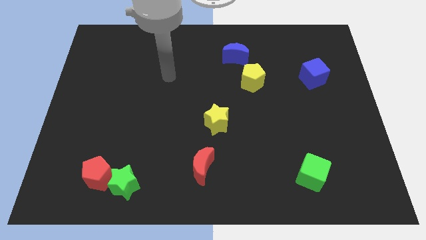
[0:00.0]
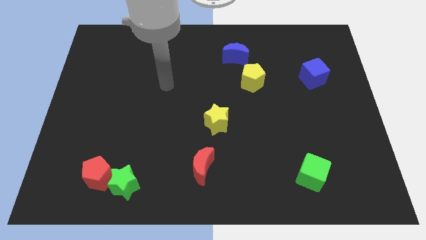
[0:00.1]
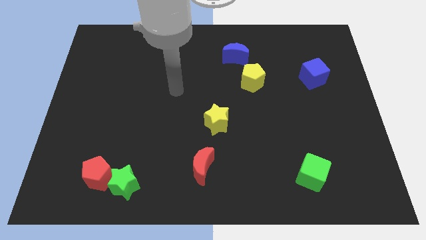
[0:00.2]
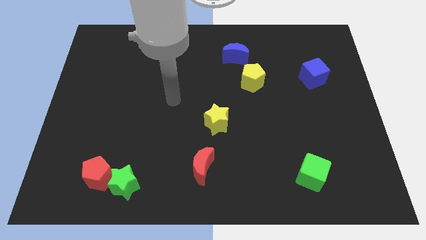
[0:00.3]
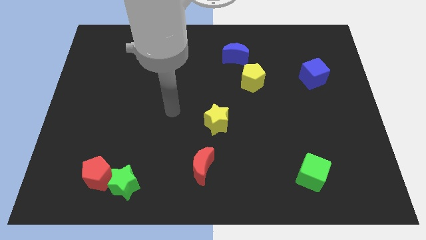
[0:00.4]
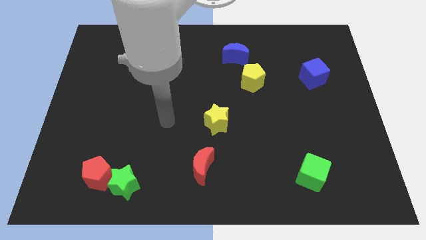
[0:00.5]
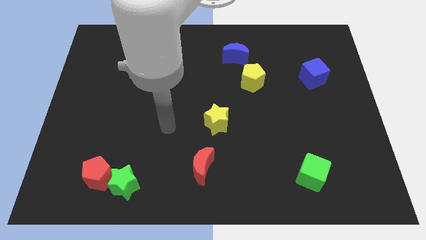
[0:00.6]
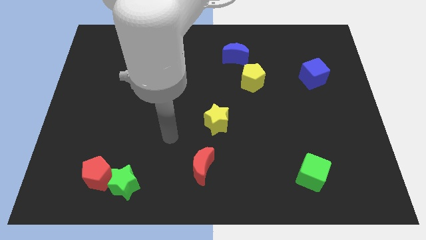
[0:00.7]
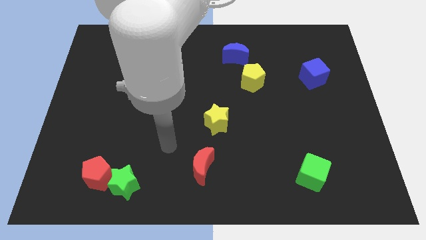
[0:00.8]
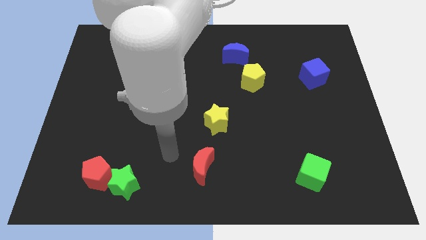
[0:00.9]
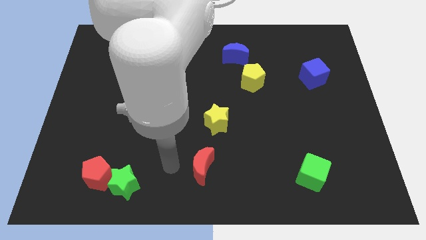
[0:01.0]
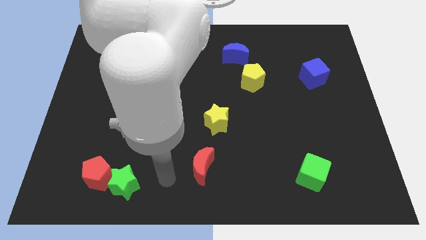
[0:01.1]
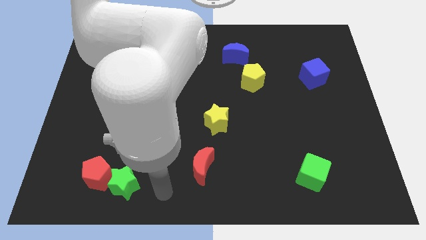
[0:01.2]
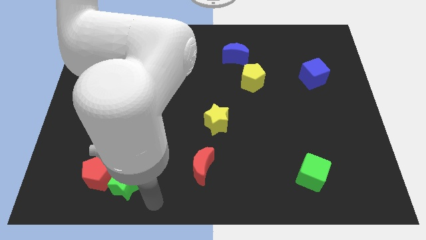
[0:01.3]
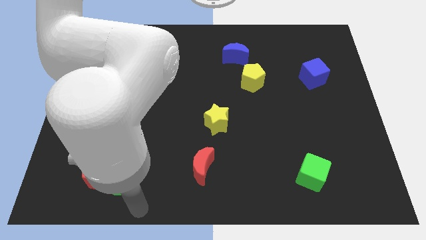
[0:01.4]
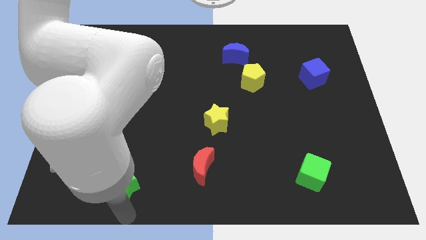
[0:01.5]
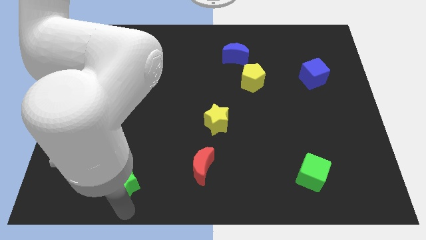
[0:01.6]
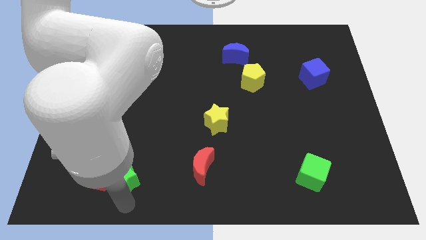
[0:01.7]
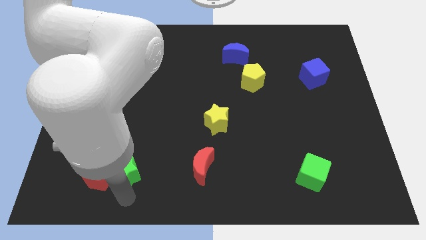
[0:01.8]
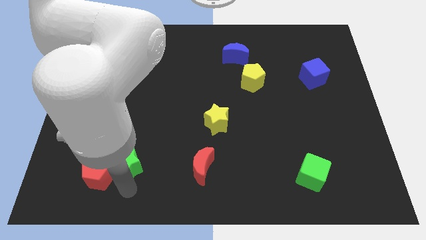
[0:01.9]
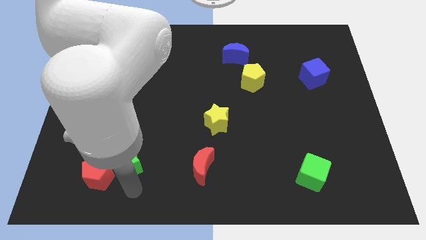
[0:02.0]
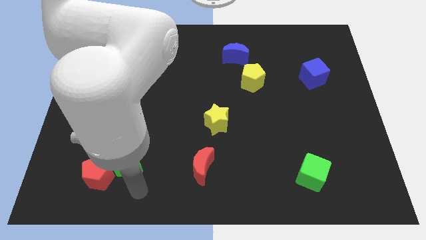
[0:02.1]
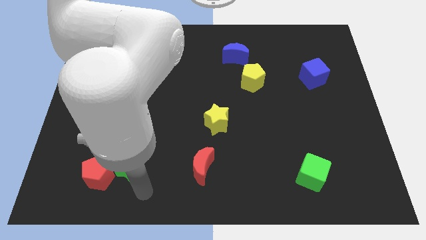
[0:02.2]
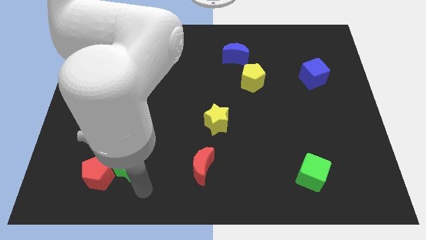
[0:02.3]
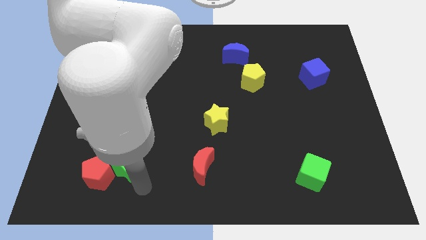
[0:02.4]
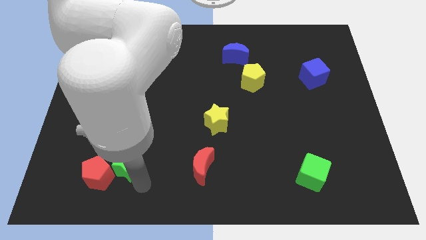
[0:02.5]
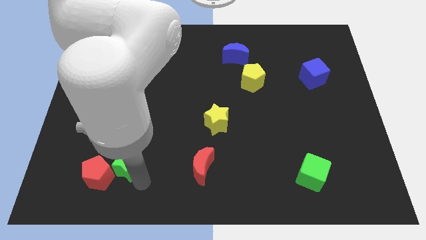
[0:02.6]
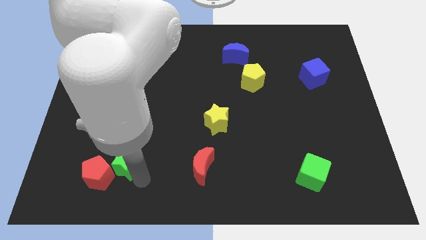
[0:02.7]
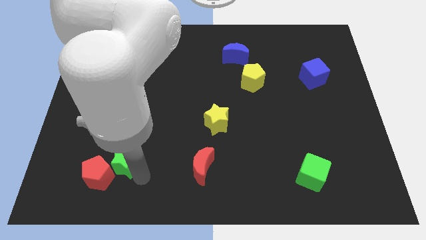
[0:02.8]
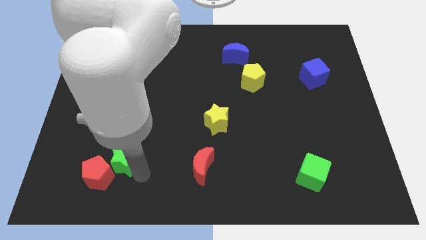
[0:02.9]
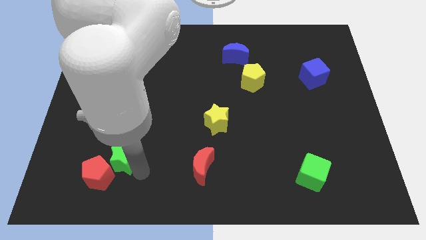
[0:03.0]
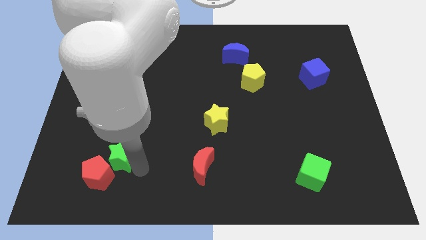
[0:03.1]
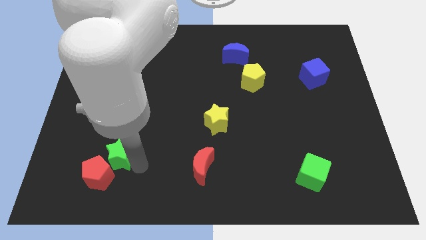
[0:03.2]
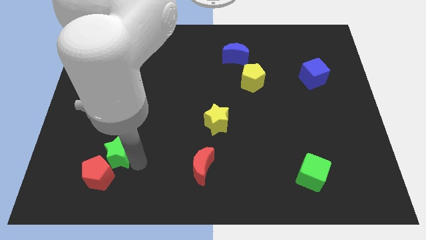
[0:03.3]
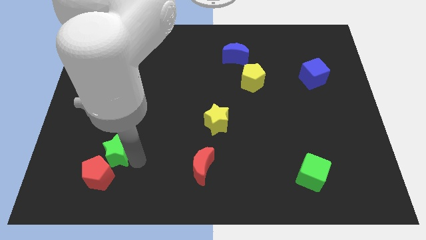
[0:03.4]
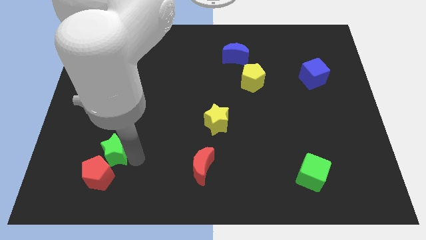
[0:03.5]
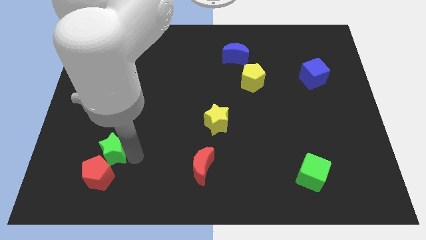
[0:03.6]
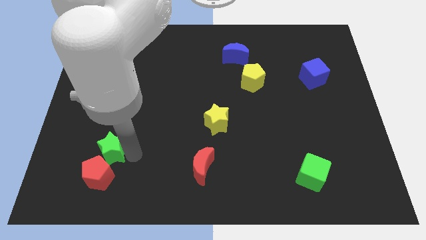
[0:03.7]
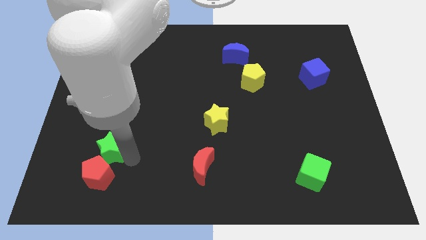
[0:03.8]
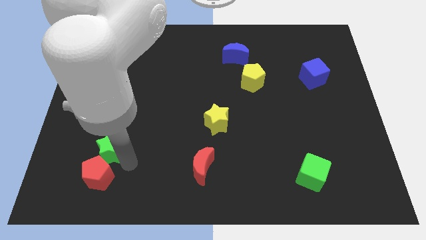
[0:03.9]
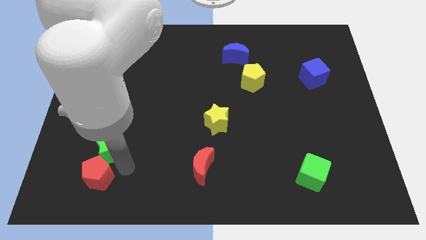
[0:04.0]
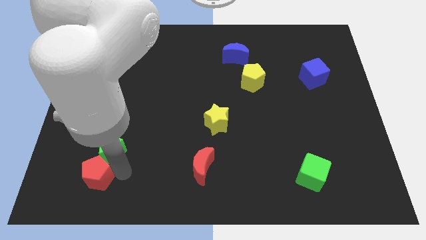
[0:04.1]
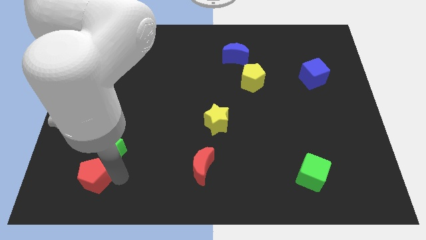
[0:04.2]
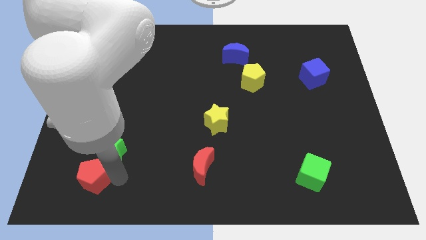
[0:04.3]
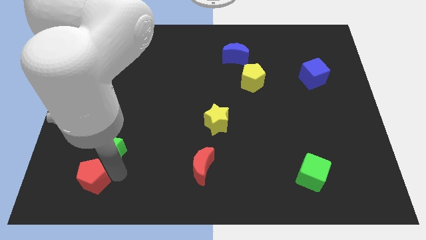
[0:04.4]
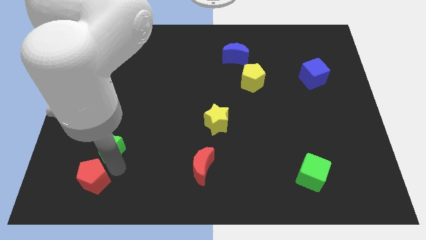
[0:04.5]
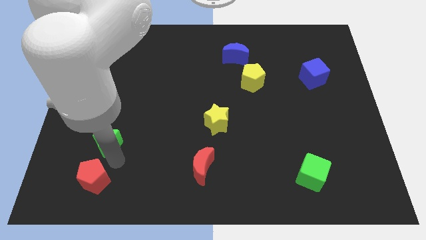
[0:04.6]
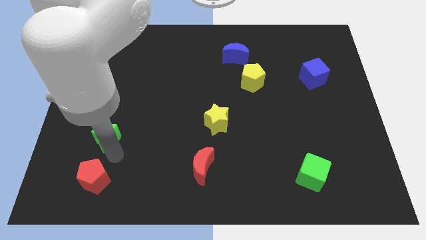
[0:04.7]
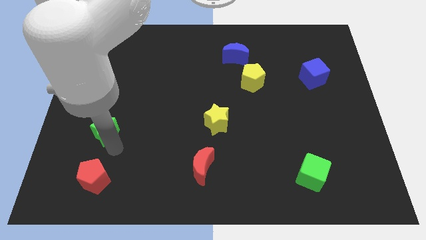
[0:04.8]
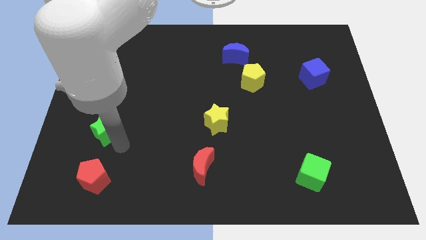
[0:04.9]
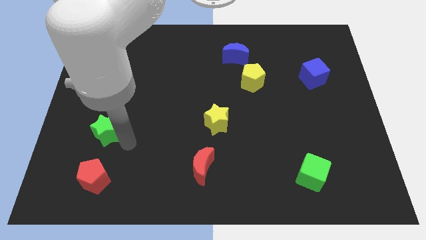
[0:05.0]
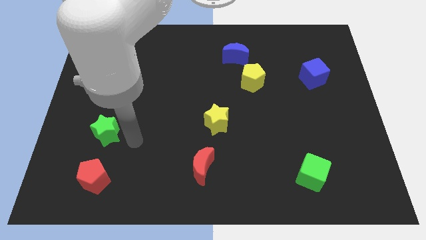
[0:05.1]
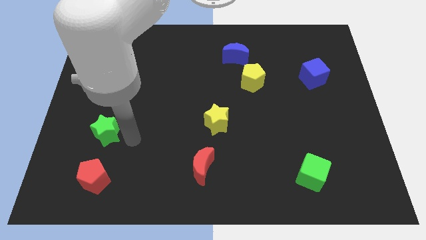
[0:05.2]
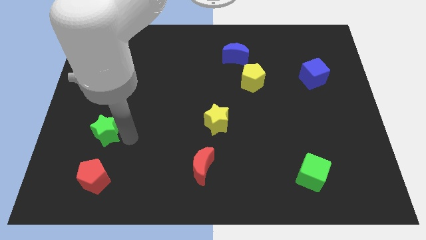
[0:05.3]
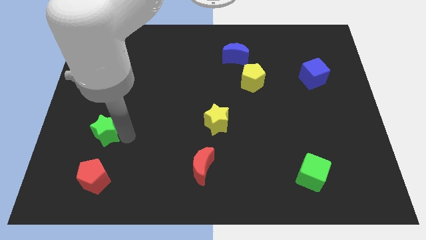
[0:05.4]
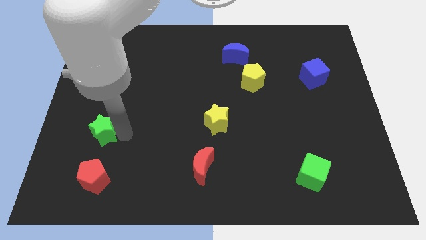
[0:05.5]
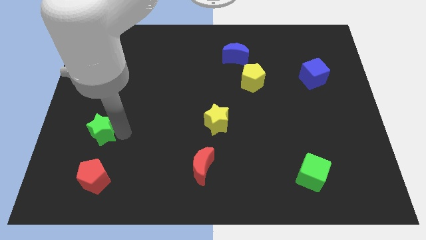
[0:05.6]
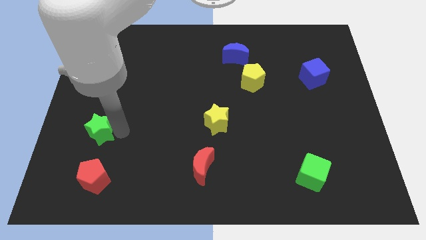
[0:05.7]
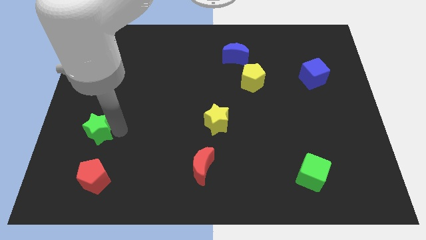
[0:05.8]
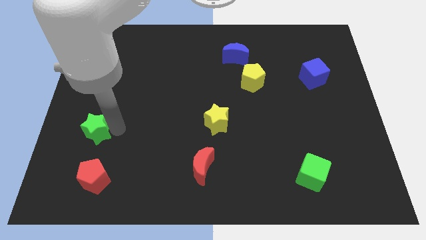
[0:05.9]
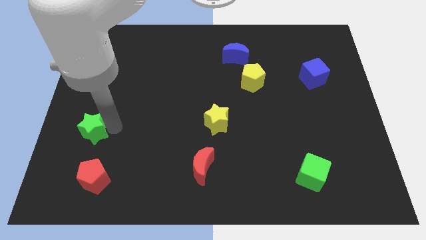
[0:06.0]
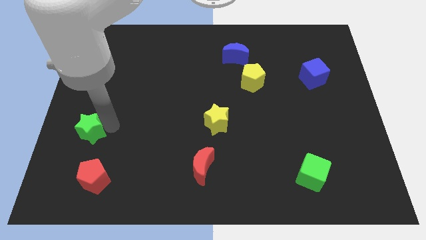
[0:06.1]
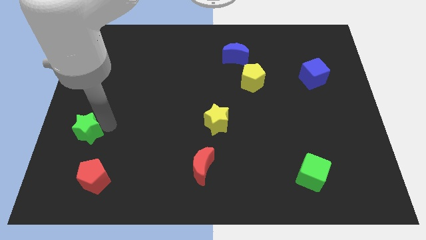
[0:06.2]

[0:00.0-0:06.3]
slide the green star to the left side

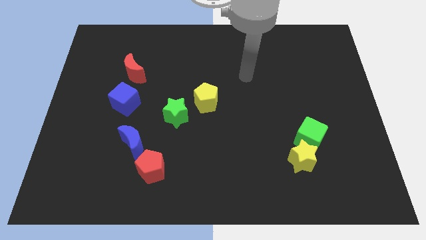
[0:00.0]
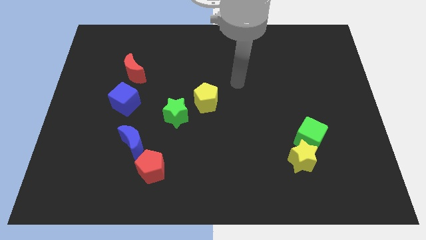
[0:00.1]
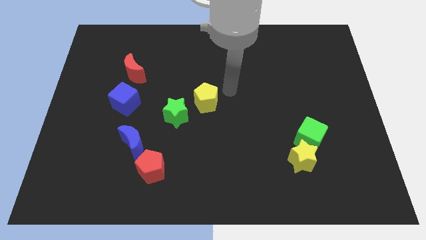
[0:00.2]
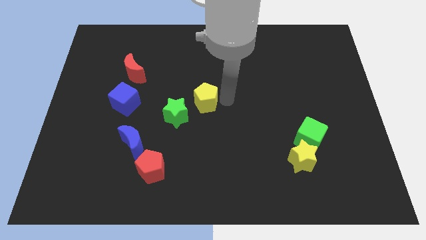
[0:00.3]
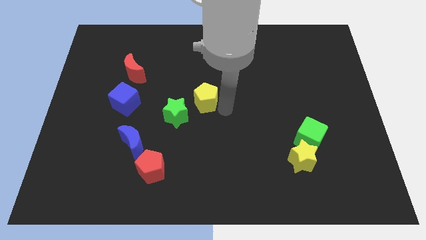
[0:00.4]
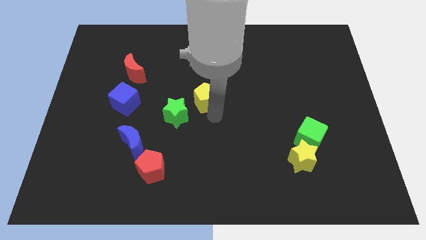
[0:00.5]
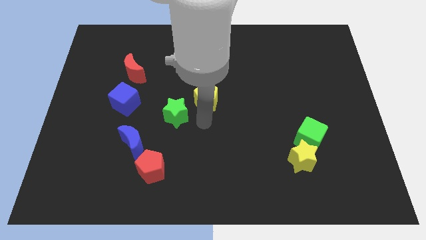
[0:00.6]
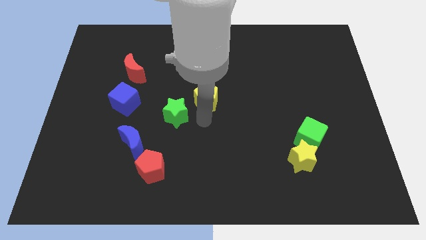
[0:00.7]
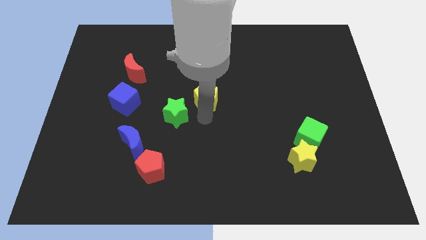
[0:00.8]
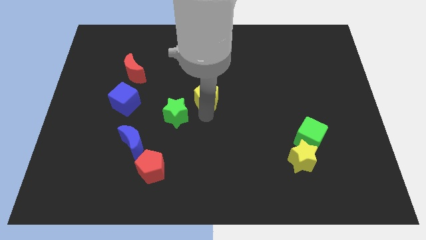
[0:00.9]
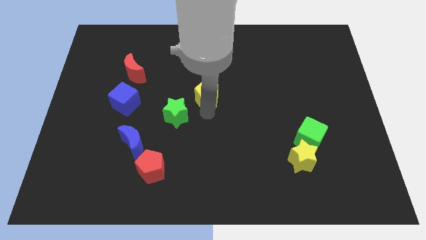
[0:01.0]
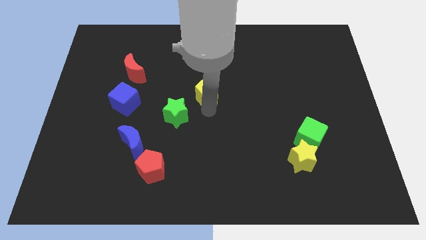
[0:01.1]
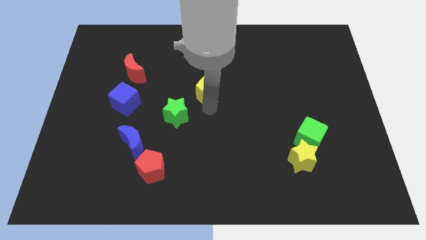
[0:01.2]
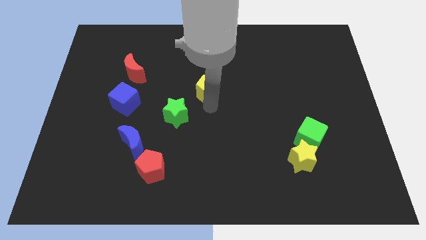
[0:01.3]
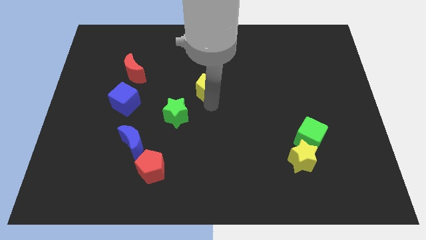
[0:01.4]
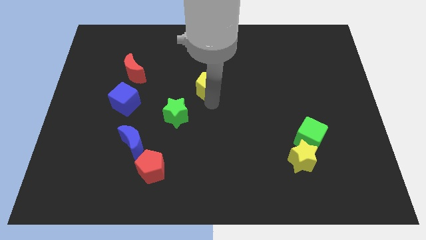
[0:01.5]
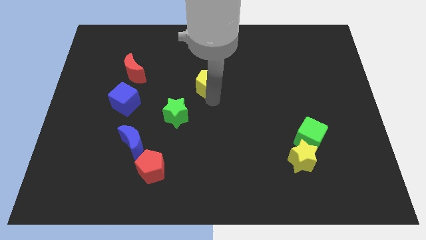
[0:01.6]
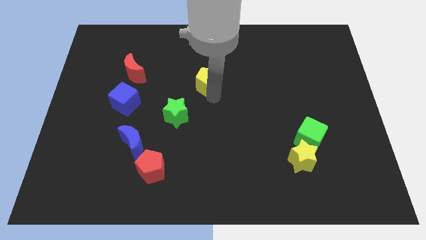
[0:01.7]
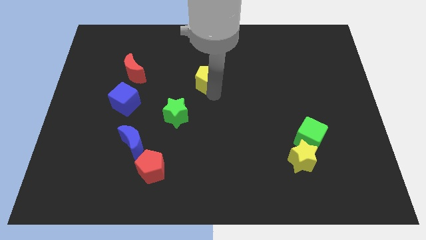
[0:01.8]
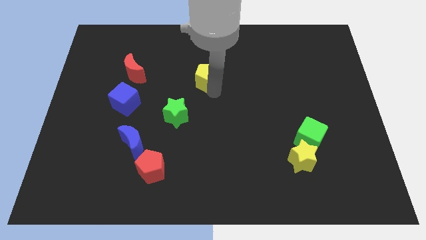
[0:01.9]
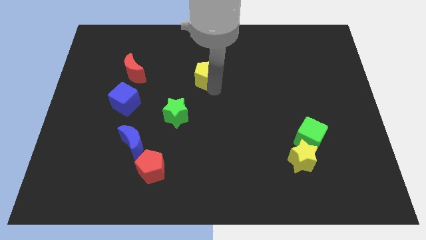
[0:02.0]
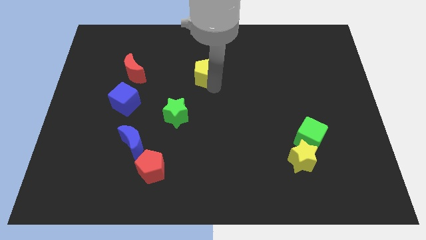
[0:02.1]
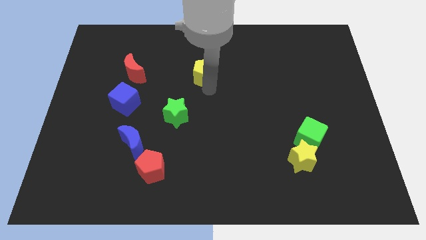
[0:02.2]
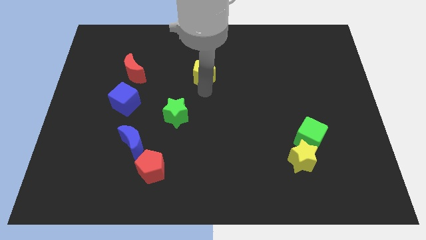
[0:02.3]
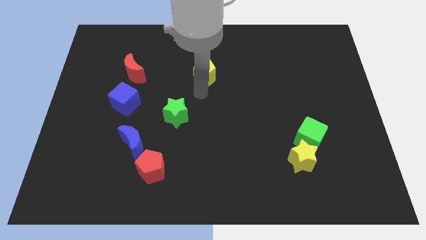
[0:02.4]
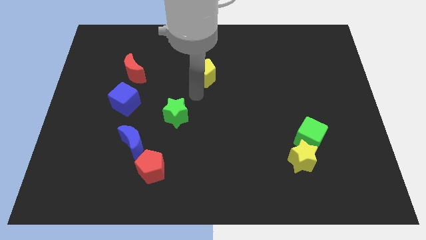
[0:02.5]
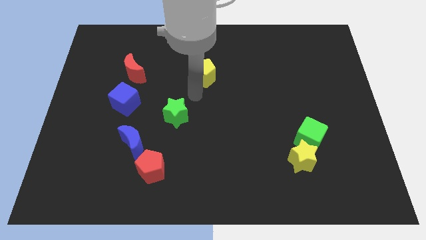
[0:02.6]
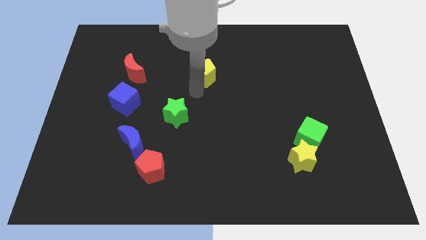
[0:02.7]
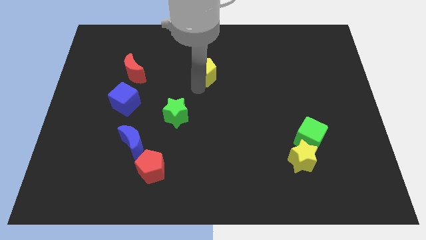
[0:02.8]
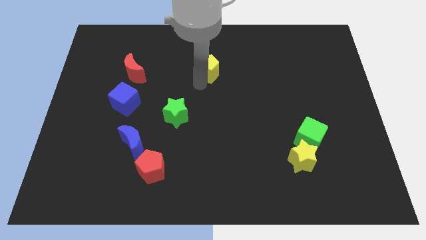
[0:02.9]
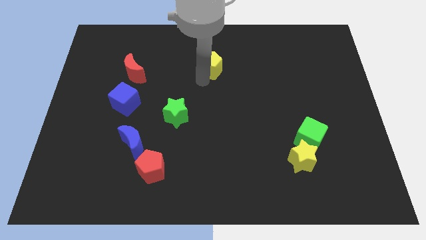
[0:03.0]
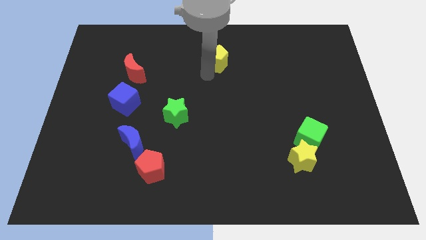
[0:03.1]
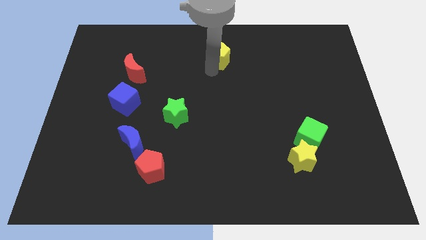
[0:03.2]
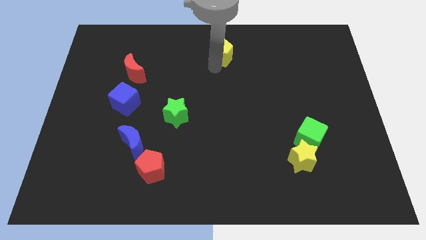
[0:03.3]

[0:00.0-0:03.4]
put the yellow pentagon to the top
